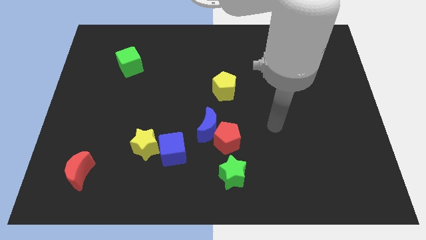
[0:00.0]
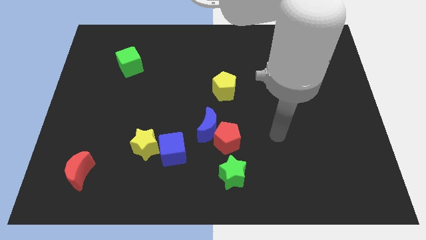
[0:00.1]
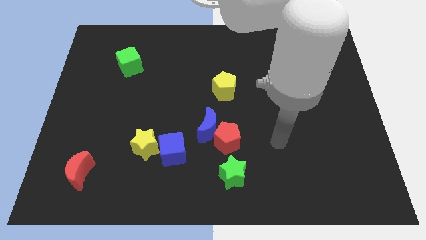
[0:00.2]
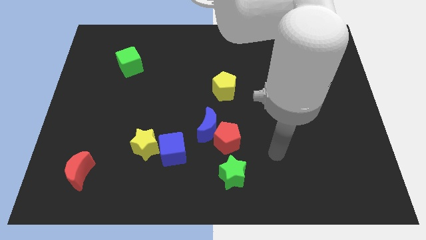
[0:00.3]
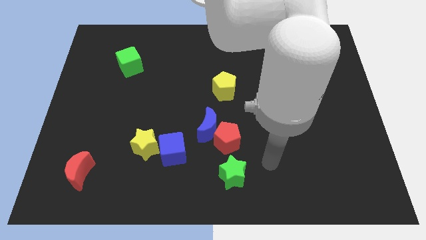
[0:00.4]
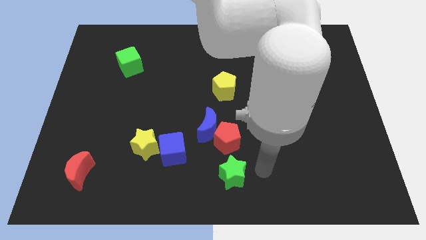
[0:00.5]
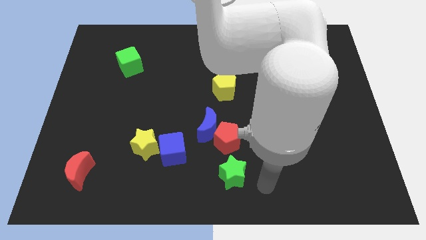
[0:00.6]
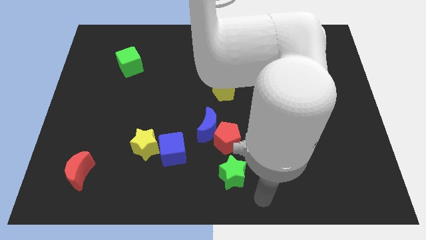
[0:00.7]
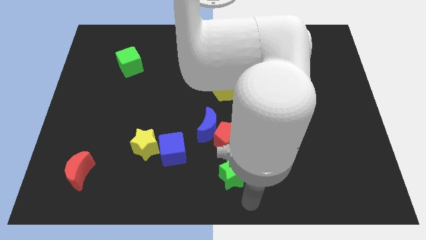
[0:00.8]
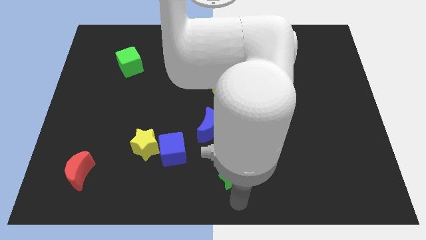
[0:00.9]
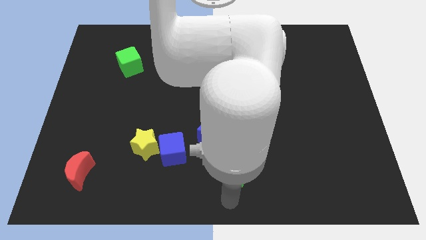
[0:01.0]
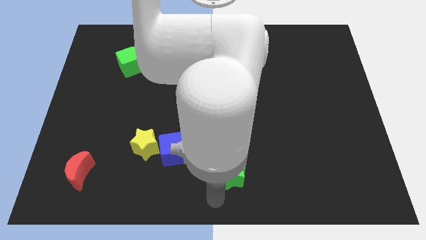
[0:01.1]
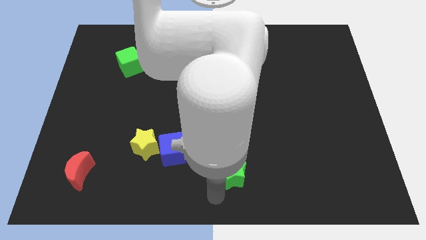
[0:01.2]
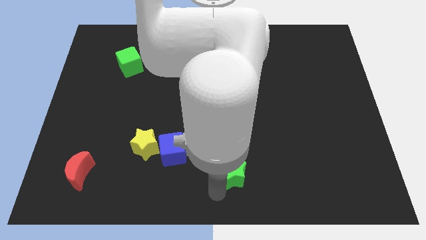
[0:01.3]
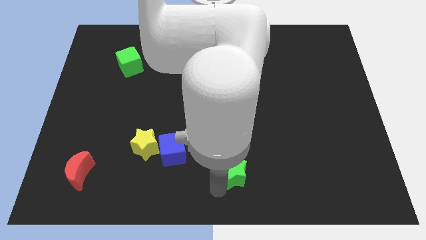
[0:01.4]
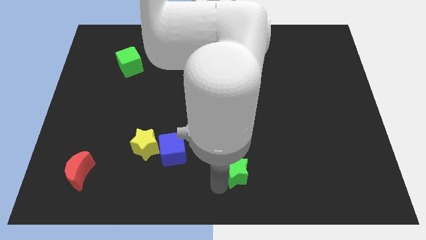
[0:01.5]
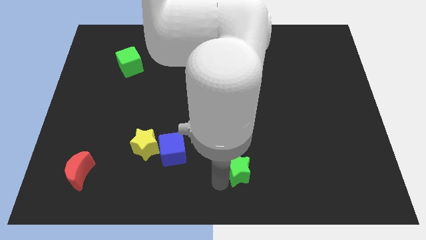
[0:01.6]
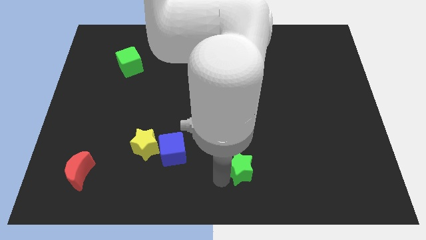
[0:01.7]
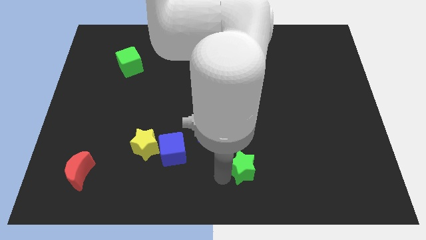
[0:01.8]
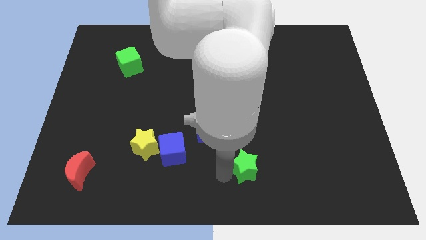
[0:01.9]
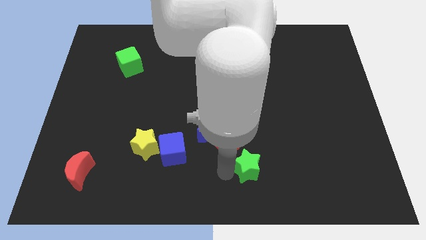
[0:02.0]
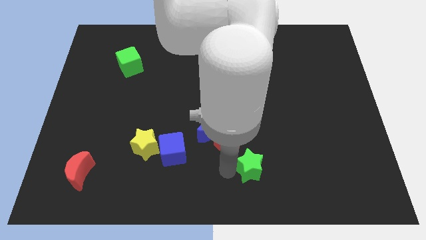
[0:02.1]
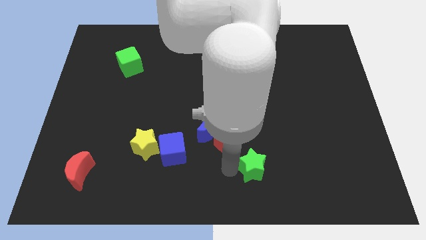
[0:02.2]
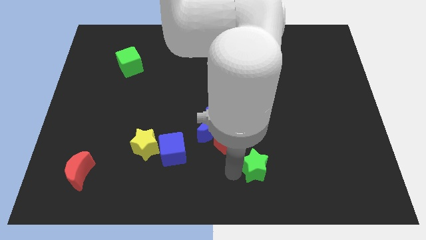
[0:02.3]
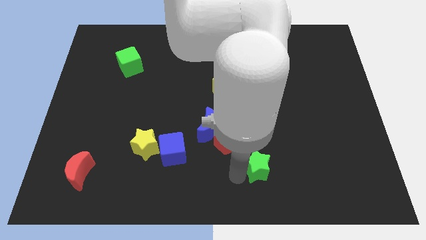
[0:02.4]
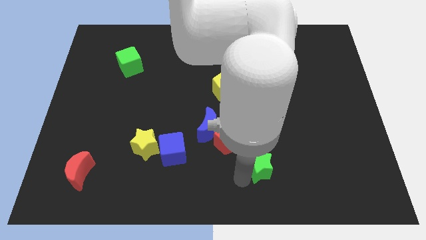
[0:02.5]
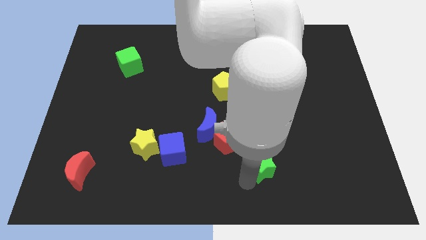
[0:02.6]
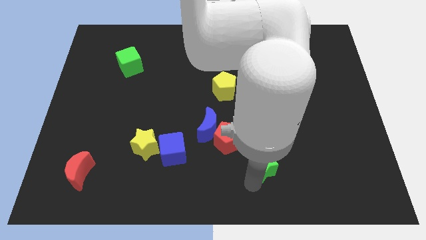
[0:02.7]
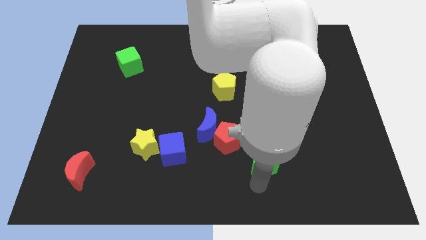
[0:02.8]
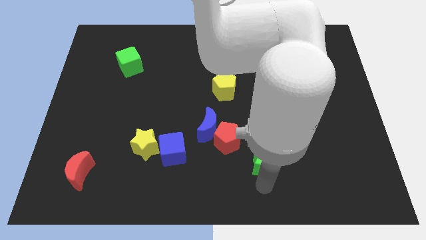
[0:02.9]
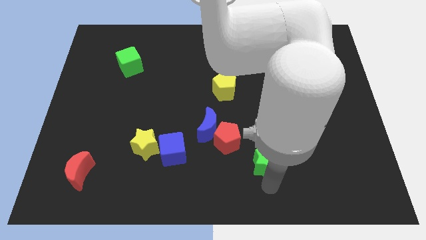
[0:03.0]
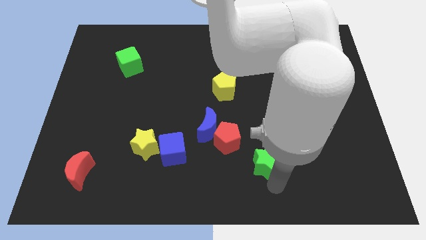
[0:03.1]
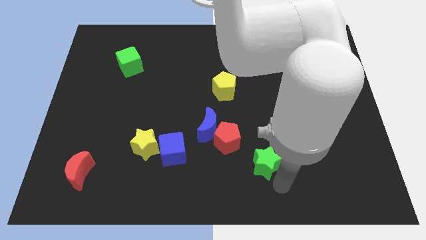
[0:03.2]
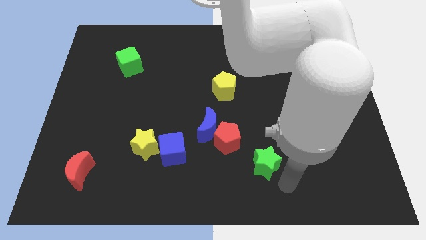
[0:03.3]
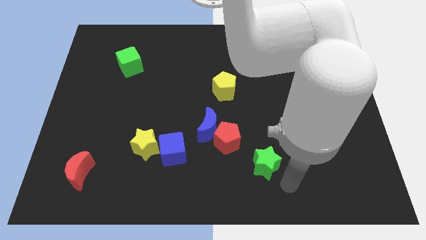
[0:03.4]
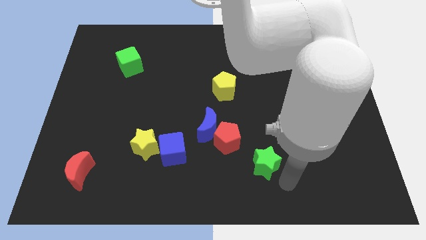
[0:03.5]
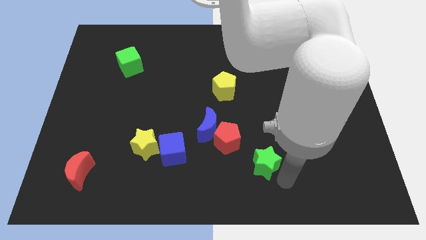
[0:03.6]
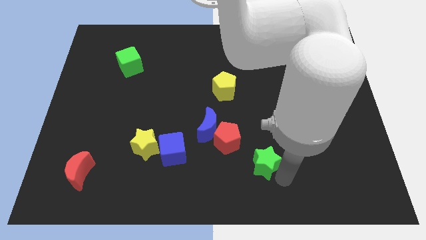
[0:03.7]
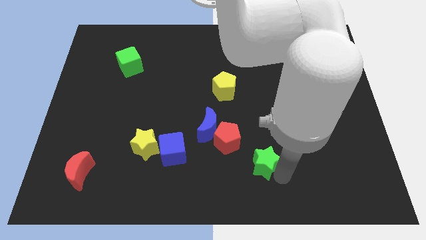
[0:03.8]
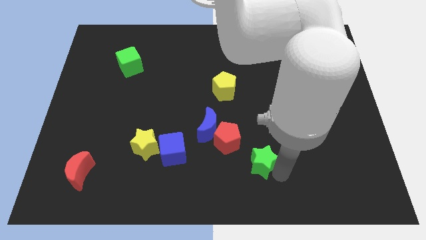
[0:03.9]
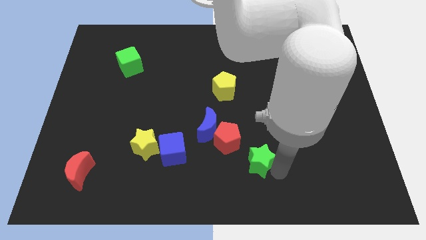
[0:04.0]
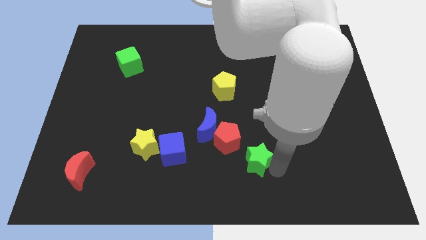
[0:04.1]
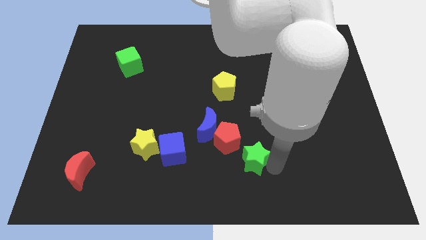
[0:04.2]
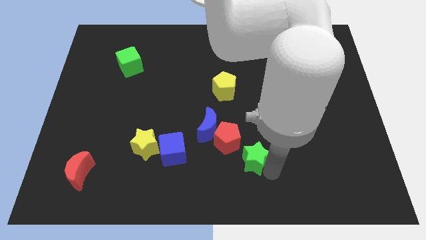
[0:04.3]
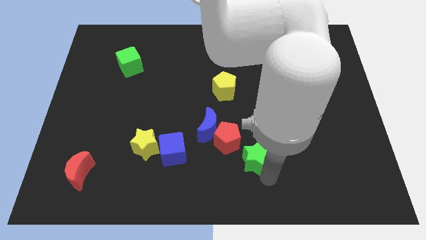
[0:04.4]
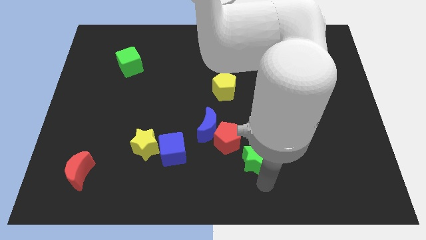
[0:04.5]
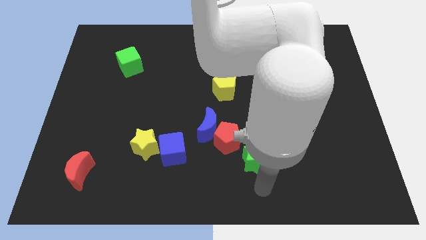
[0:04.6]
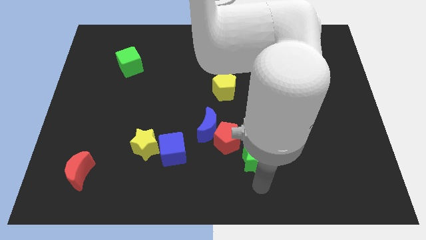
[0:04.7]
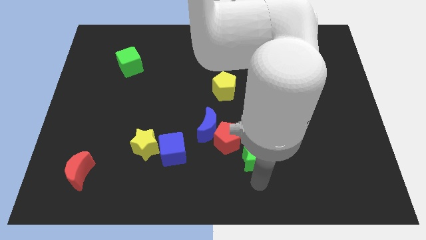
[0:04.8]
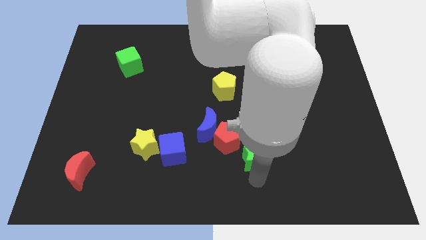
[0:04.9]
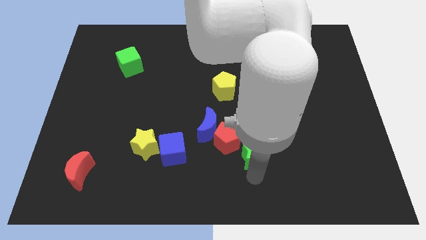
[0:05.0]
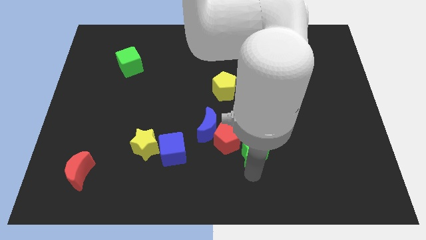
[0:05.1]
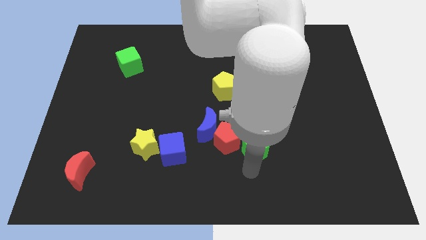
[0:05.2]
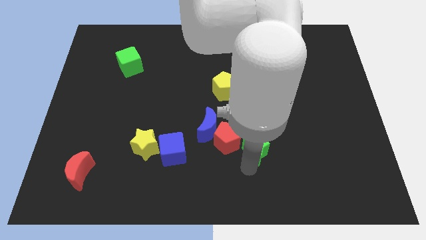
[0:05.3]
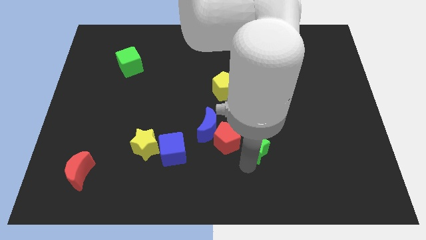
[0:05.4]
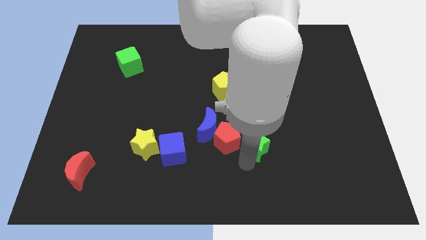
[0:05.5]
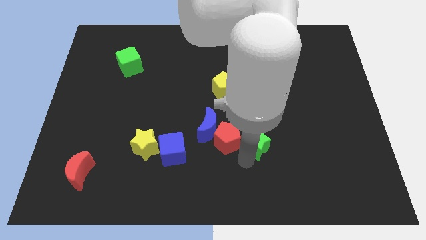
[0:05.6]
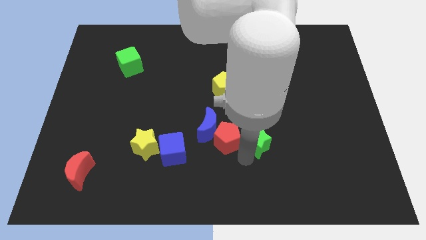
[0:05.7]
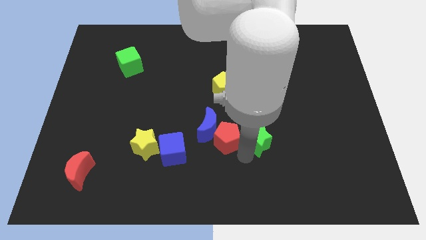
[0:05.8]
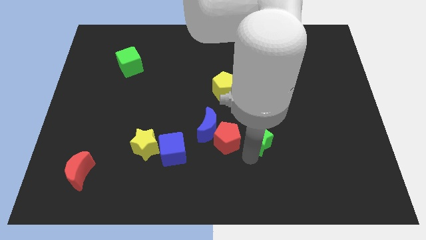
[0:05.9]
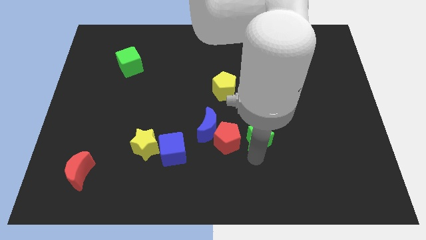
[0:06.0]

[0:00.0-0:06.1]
push the green star up a bit

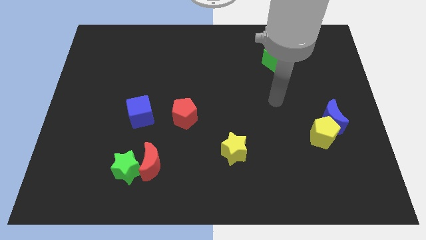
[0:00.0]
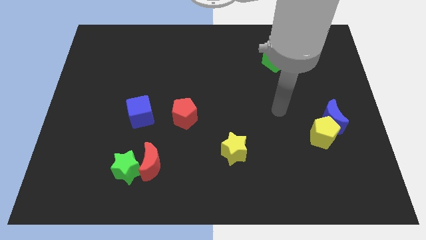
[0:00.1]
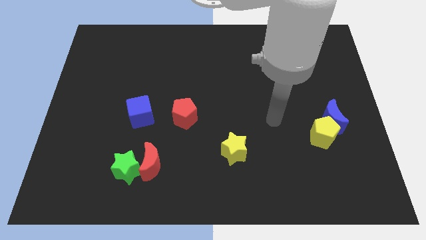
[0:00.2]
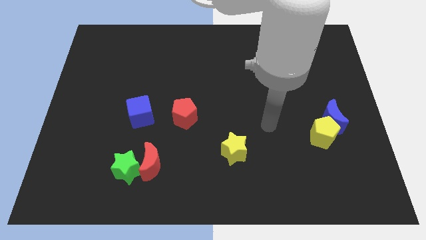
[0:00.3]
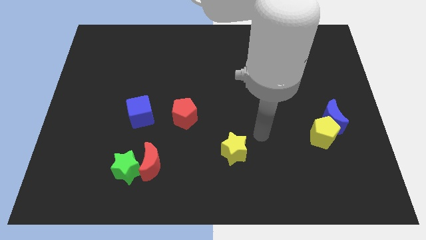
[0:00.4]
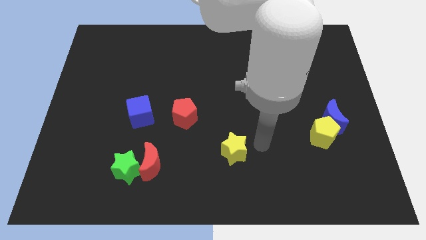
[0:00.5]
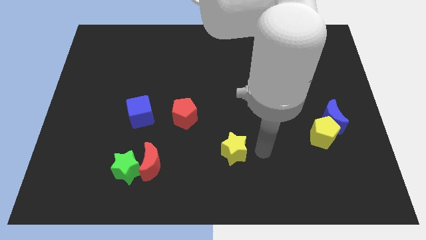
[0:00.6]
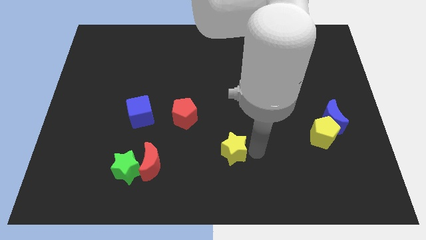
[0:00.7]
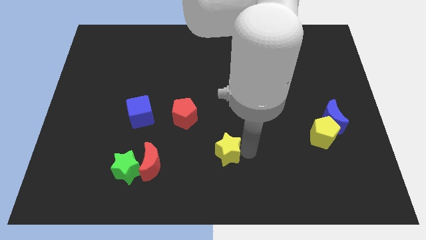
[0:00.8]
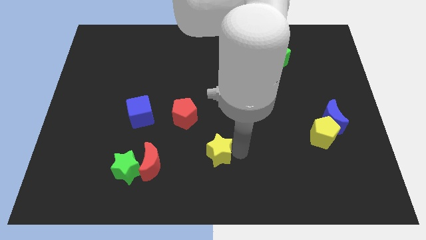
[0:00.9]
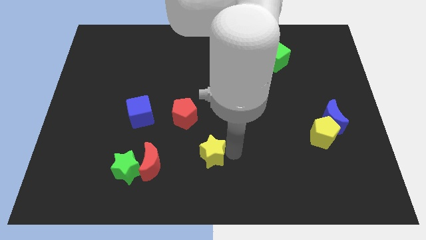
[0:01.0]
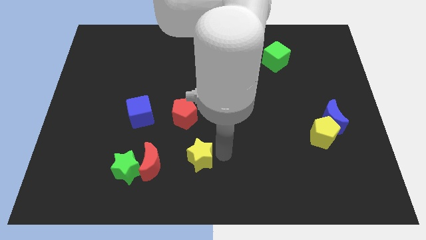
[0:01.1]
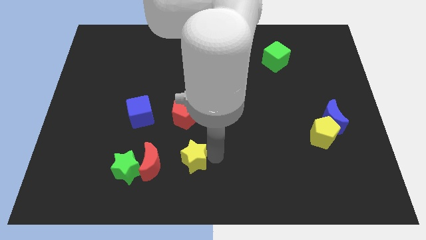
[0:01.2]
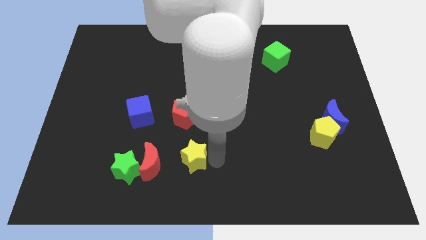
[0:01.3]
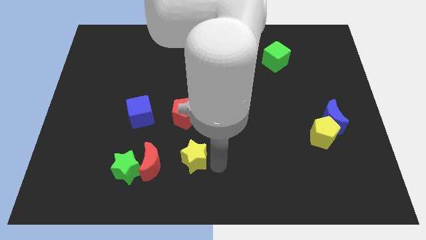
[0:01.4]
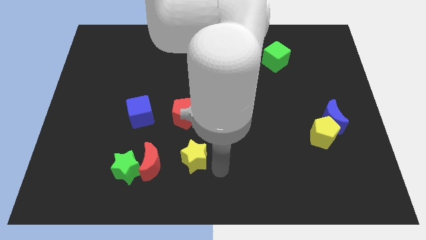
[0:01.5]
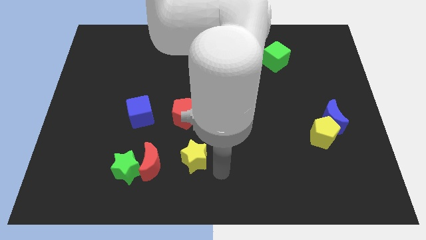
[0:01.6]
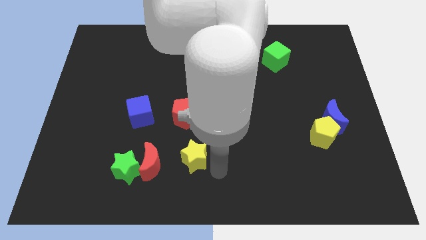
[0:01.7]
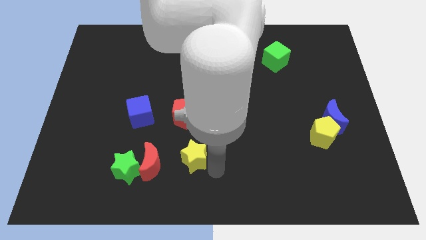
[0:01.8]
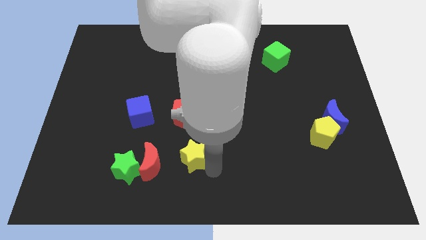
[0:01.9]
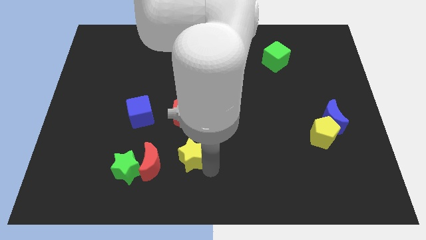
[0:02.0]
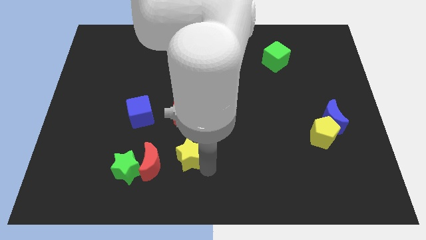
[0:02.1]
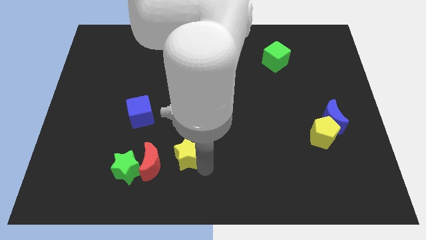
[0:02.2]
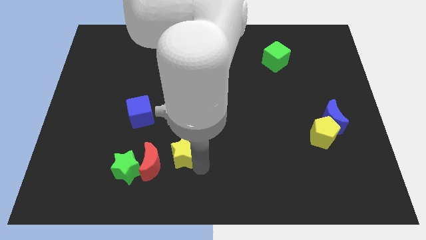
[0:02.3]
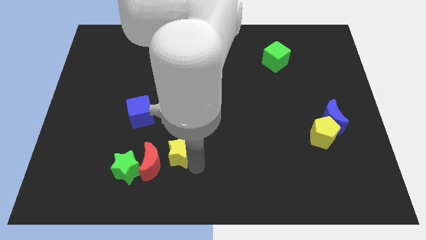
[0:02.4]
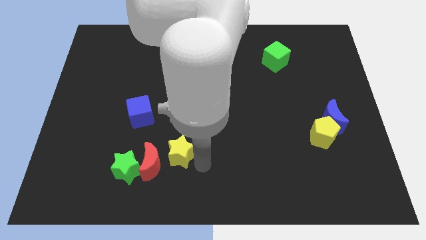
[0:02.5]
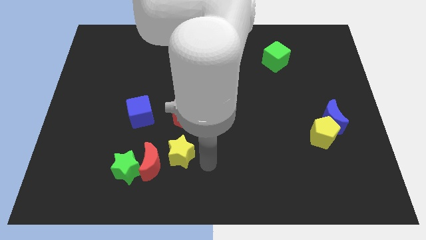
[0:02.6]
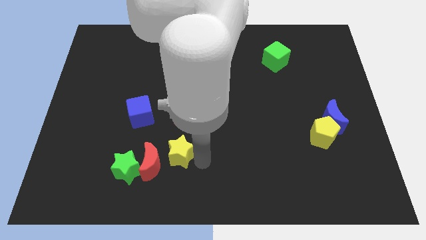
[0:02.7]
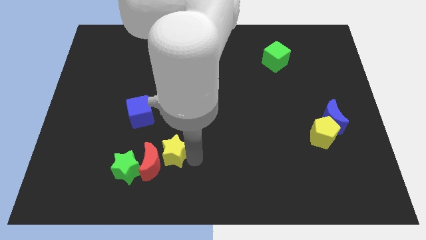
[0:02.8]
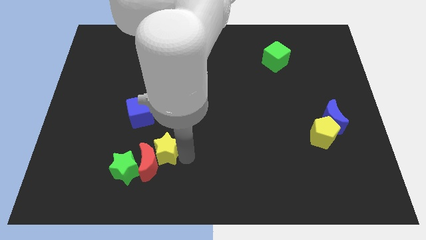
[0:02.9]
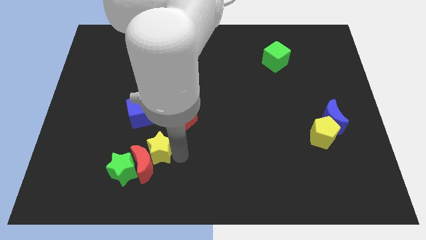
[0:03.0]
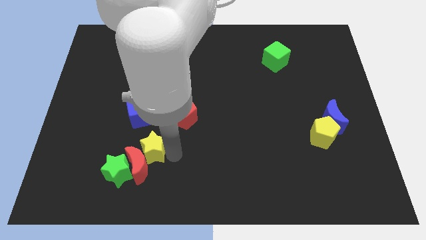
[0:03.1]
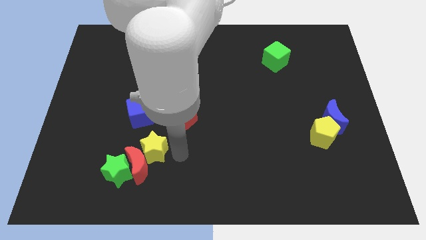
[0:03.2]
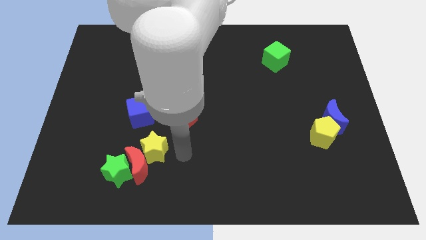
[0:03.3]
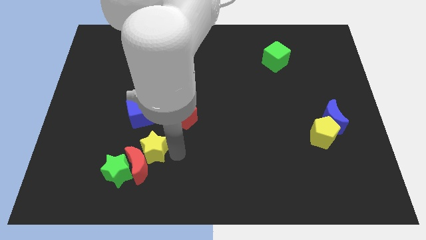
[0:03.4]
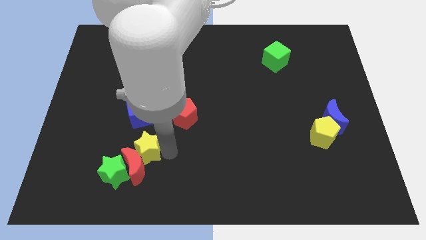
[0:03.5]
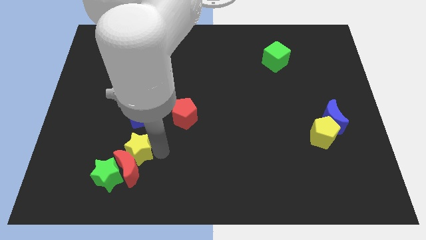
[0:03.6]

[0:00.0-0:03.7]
move the yellow star to the left
